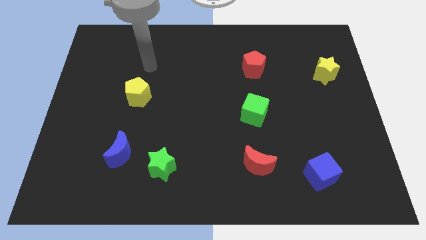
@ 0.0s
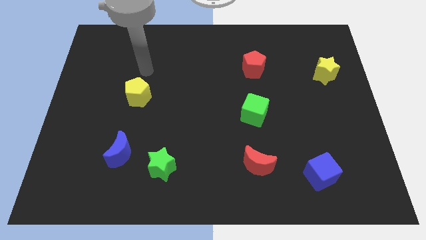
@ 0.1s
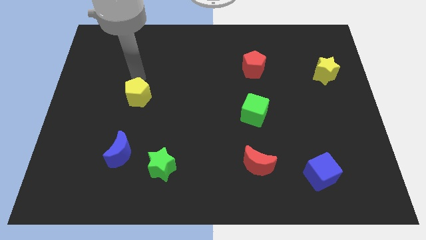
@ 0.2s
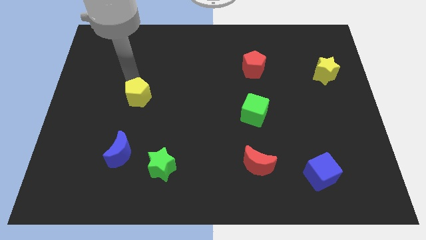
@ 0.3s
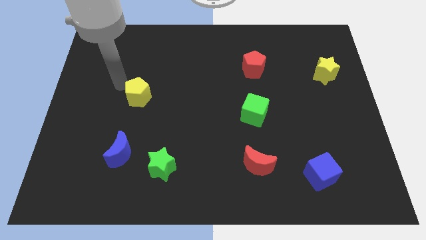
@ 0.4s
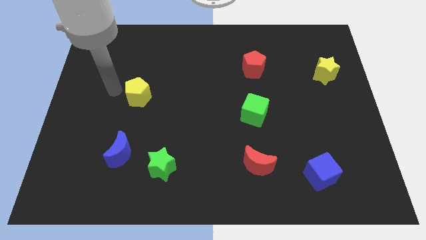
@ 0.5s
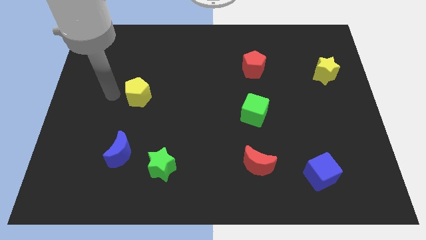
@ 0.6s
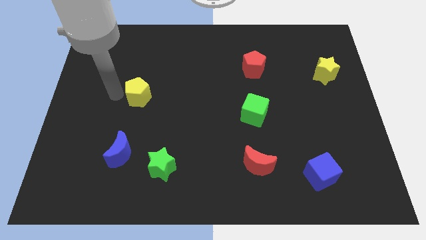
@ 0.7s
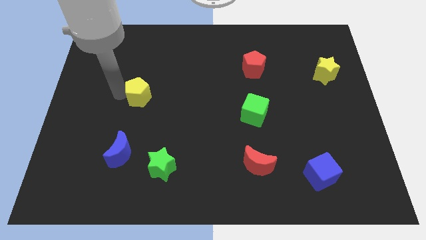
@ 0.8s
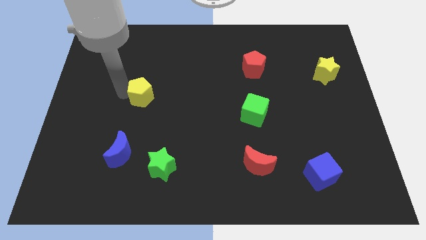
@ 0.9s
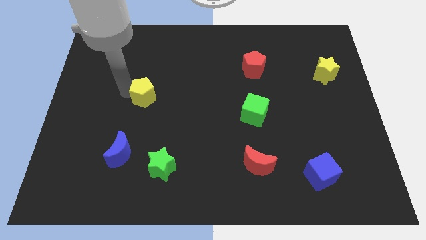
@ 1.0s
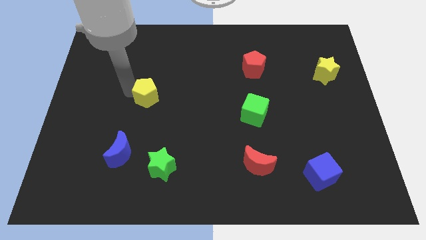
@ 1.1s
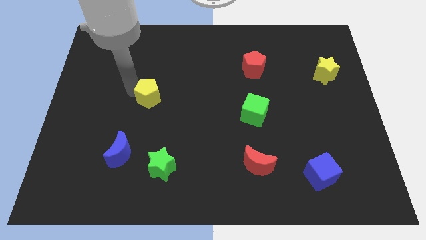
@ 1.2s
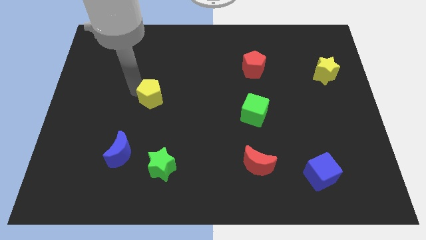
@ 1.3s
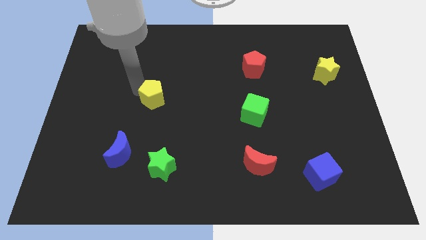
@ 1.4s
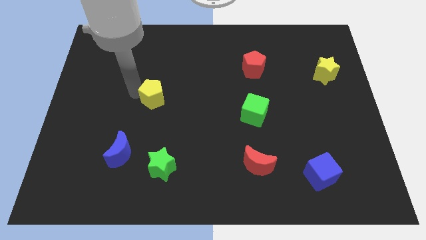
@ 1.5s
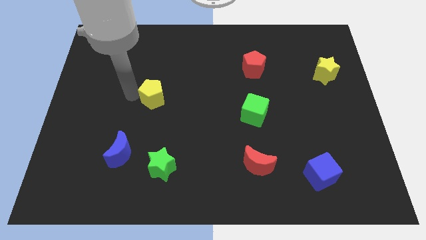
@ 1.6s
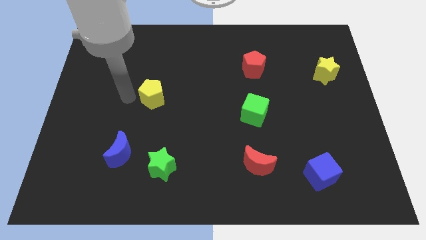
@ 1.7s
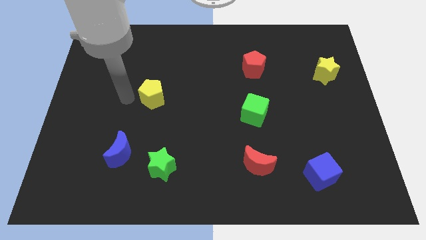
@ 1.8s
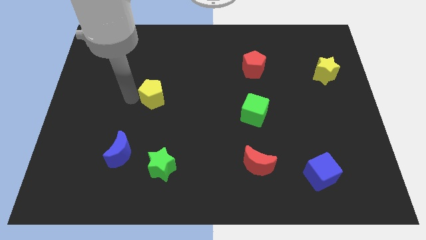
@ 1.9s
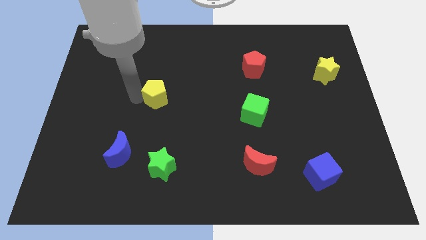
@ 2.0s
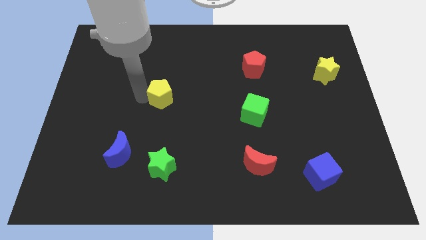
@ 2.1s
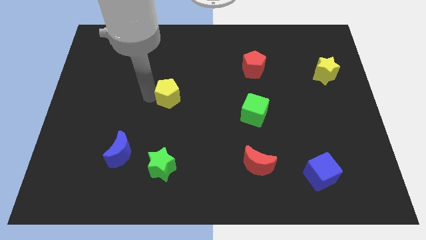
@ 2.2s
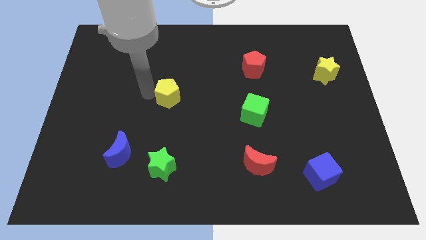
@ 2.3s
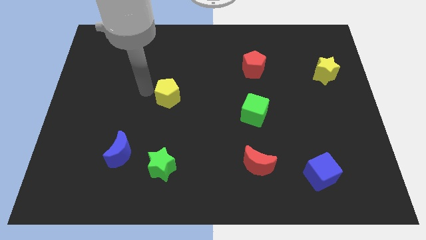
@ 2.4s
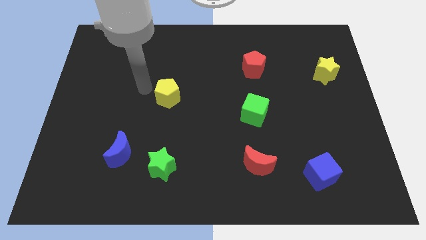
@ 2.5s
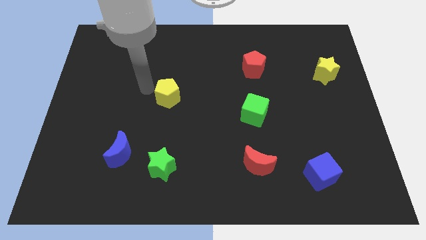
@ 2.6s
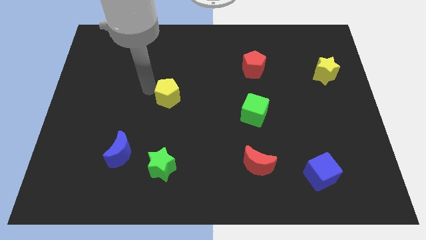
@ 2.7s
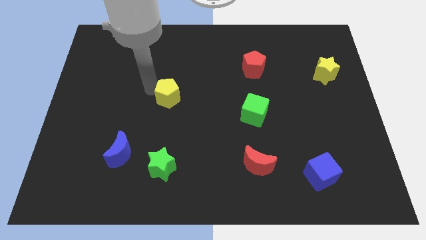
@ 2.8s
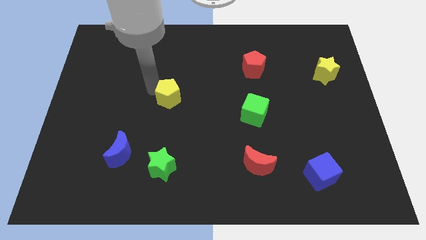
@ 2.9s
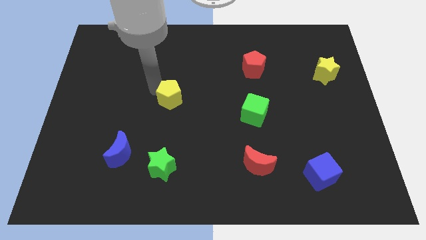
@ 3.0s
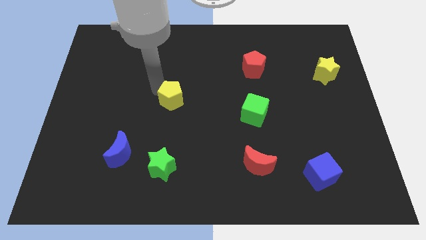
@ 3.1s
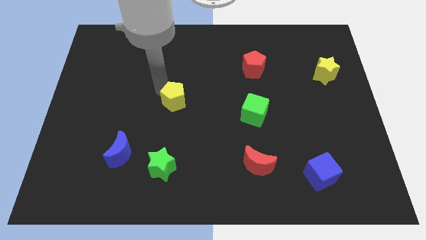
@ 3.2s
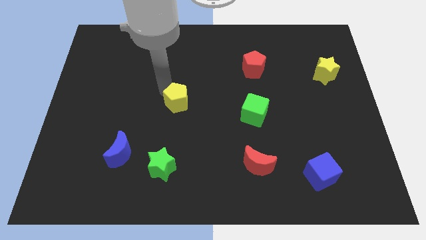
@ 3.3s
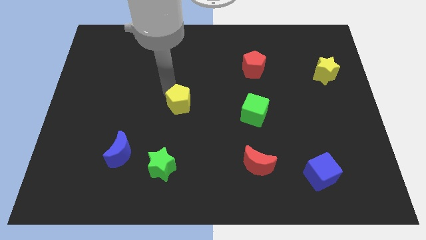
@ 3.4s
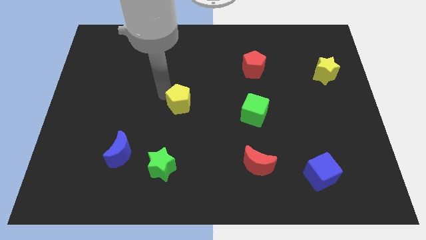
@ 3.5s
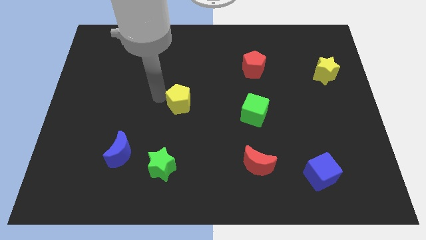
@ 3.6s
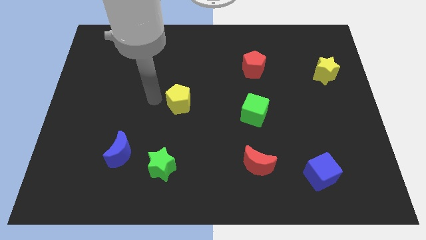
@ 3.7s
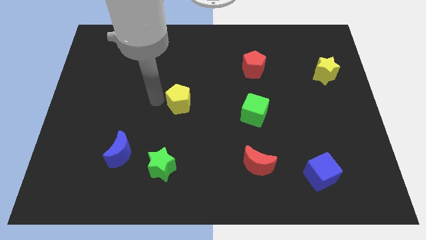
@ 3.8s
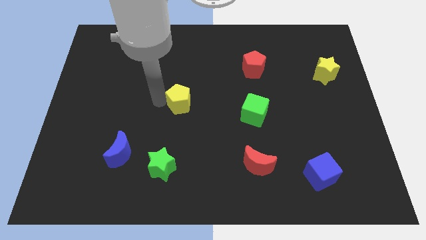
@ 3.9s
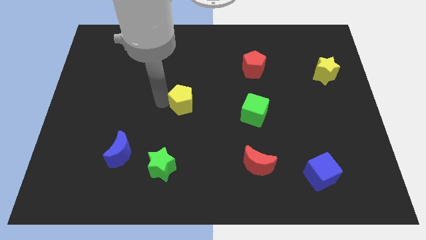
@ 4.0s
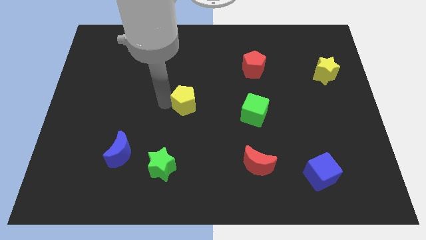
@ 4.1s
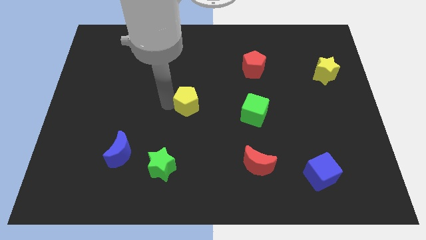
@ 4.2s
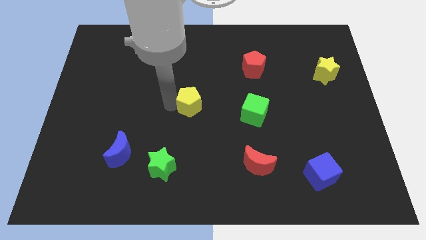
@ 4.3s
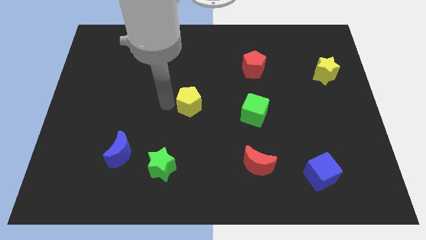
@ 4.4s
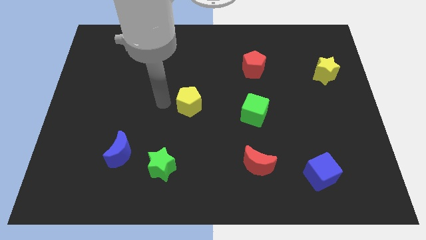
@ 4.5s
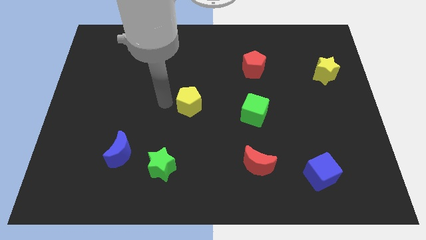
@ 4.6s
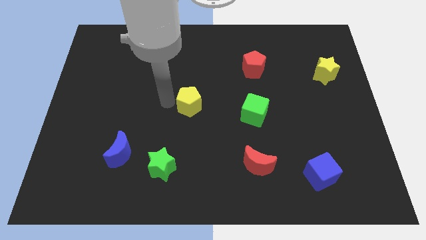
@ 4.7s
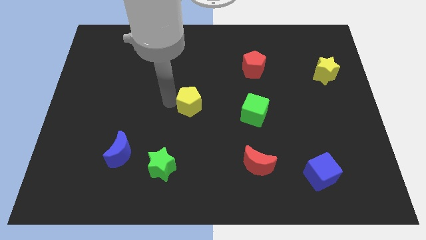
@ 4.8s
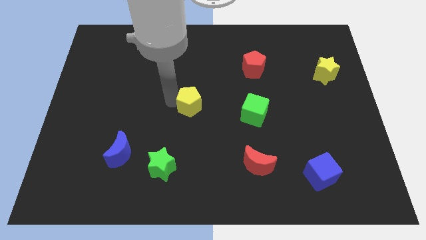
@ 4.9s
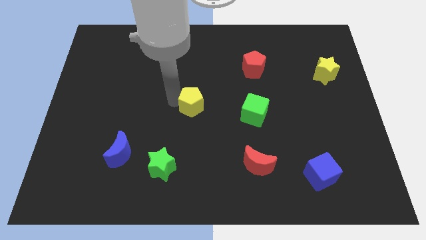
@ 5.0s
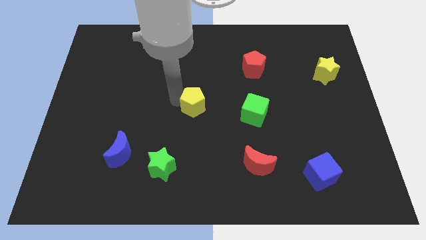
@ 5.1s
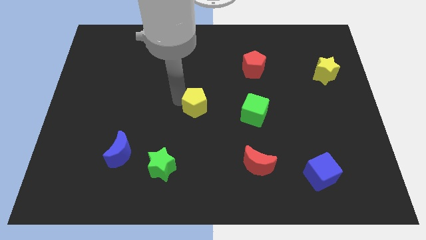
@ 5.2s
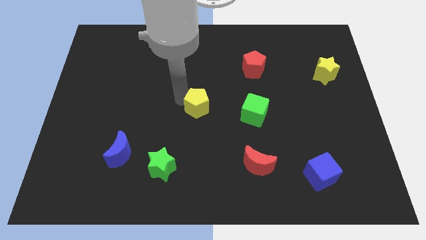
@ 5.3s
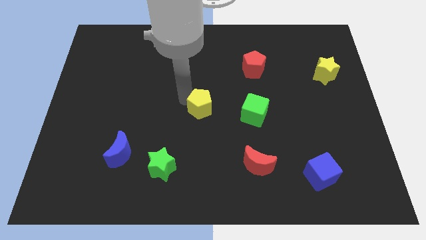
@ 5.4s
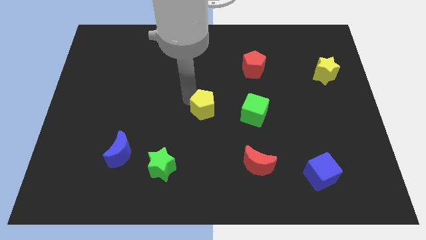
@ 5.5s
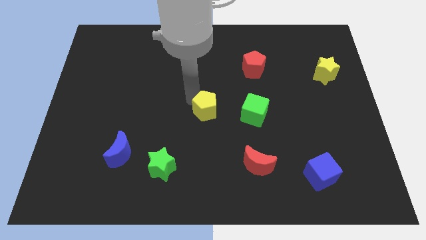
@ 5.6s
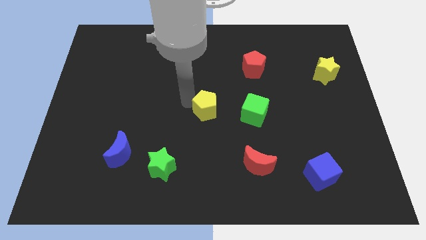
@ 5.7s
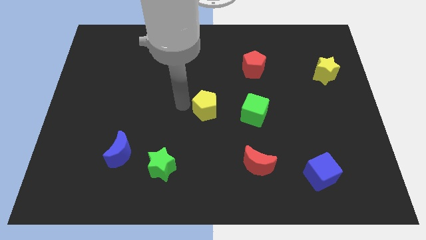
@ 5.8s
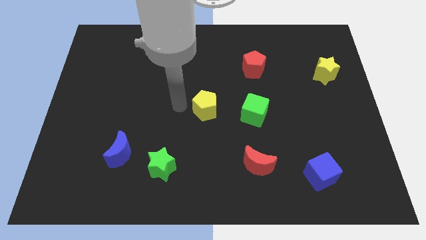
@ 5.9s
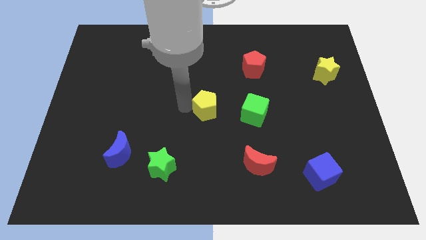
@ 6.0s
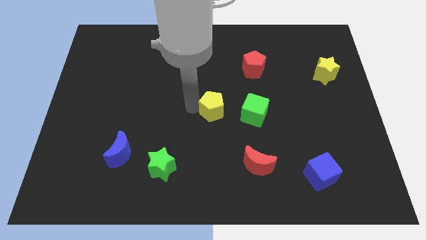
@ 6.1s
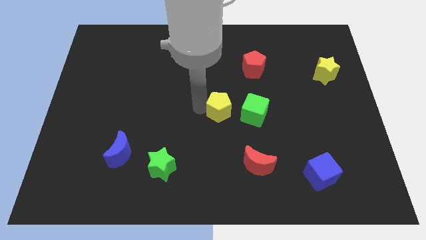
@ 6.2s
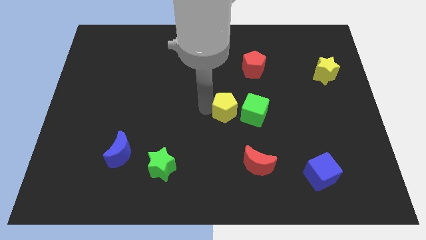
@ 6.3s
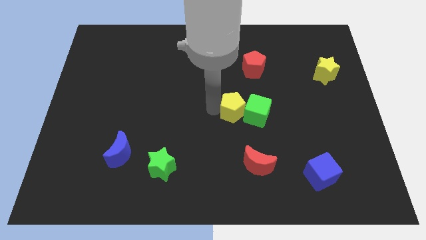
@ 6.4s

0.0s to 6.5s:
slide the yellow pentagon next to the green cube
